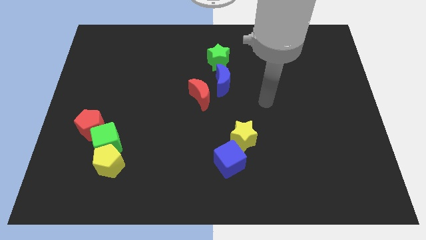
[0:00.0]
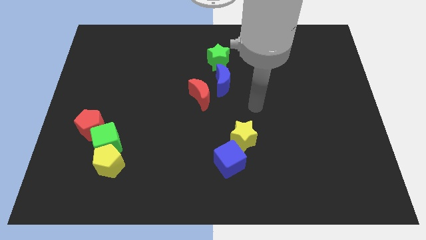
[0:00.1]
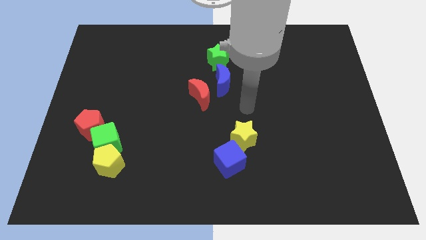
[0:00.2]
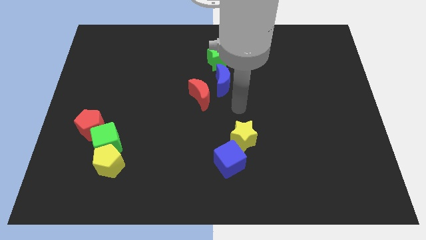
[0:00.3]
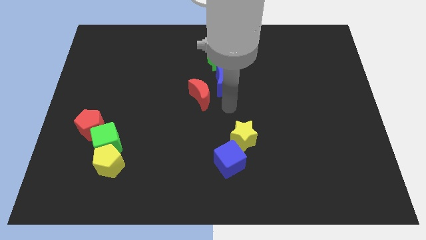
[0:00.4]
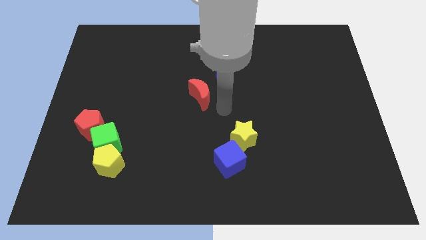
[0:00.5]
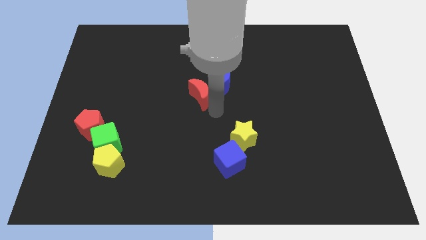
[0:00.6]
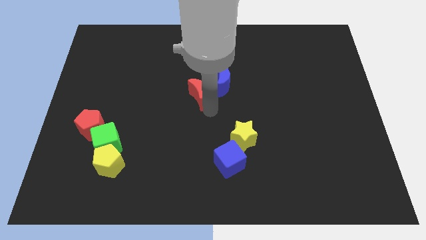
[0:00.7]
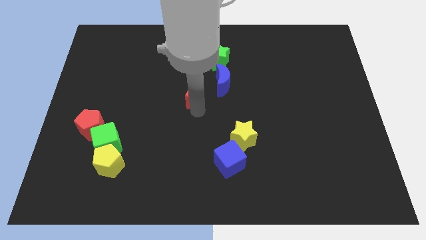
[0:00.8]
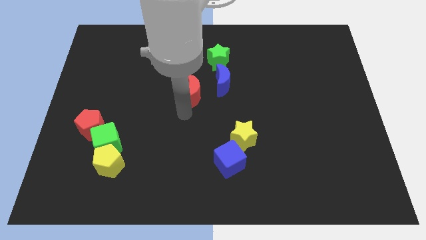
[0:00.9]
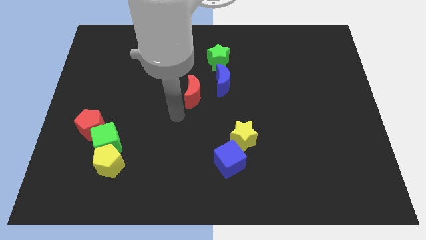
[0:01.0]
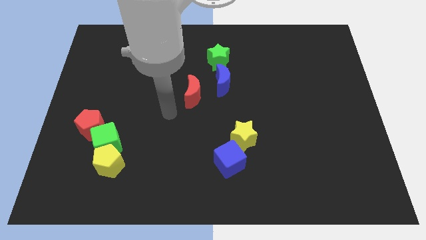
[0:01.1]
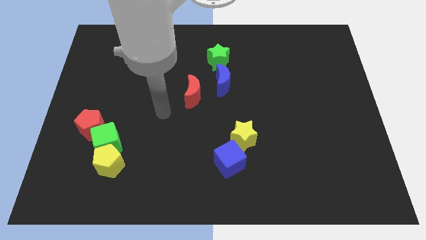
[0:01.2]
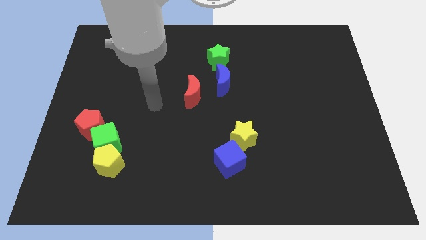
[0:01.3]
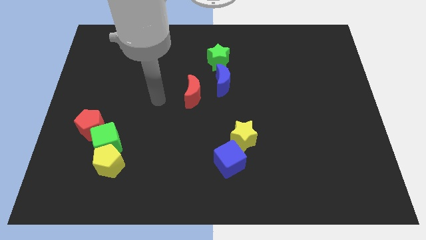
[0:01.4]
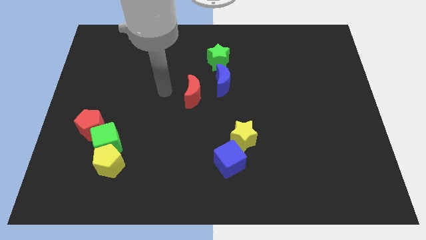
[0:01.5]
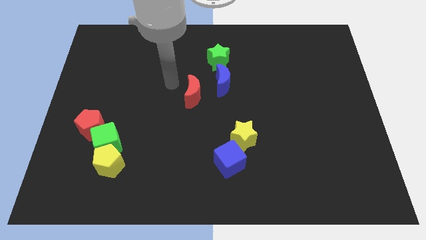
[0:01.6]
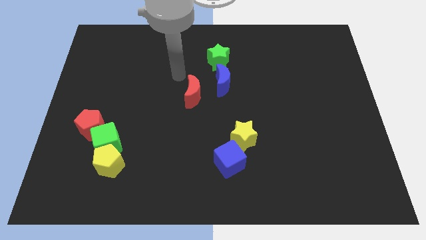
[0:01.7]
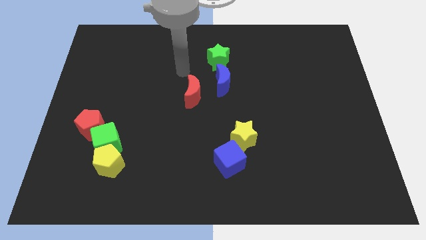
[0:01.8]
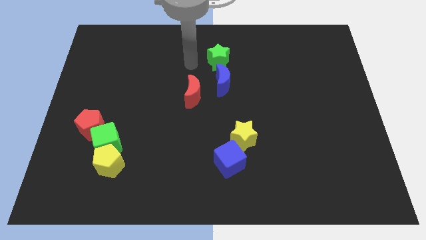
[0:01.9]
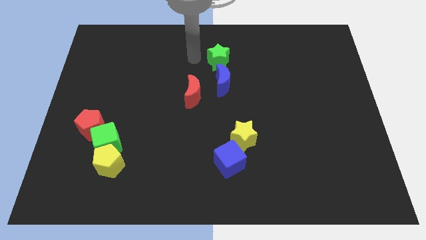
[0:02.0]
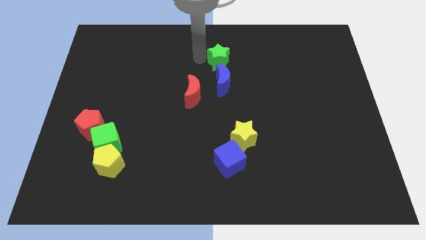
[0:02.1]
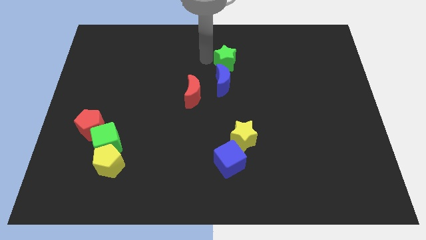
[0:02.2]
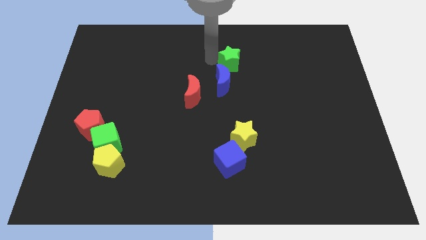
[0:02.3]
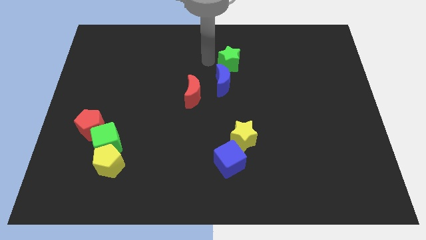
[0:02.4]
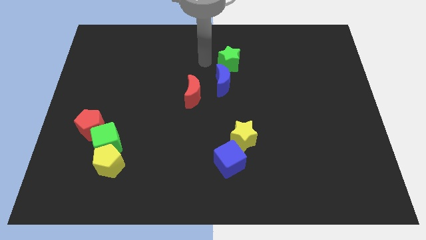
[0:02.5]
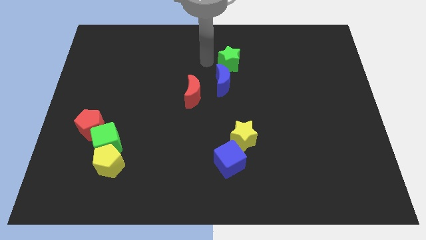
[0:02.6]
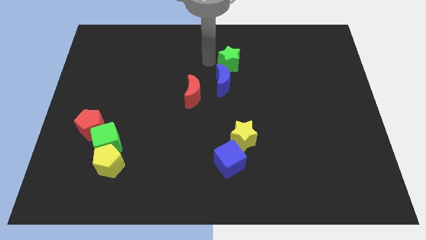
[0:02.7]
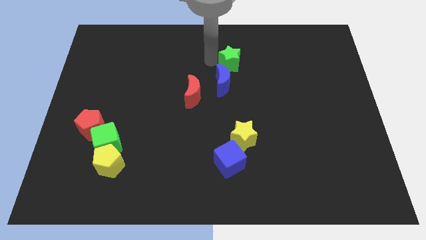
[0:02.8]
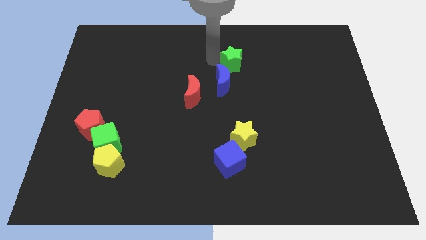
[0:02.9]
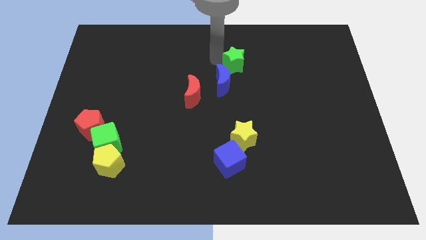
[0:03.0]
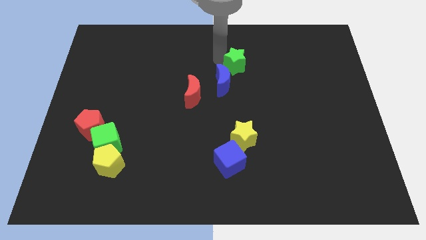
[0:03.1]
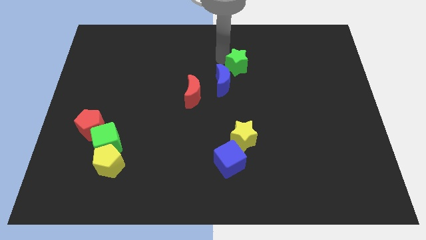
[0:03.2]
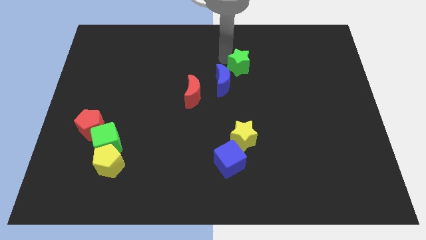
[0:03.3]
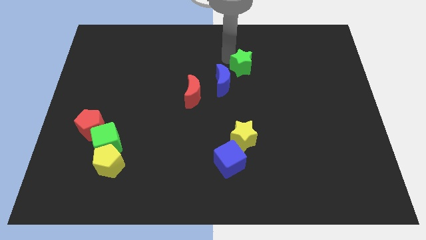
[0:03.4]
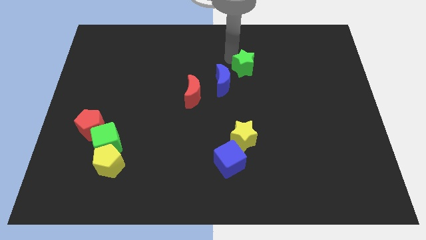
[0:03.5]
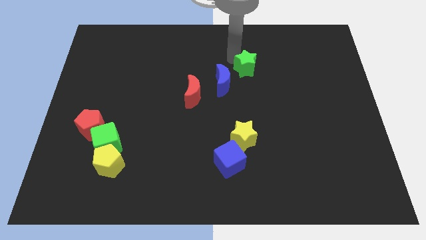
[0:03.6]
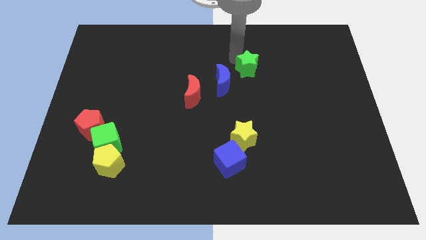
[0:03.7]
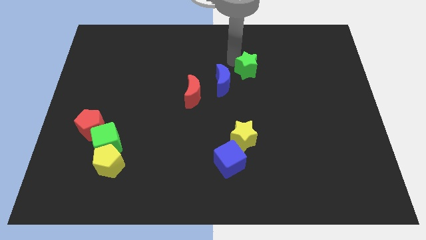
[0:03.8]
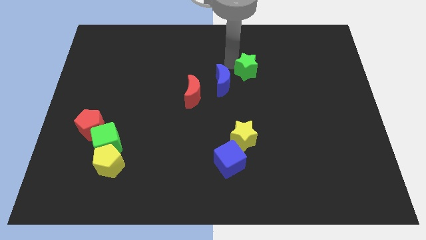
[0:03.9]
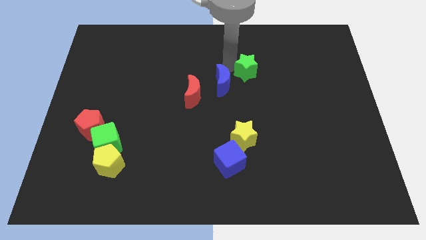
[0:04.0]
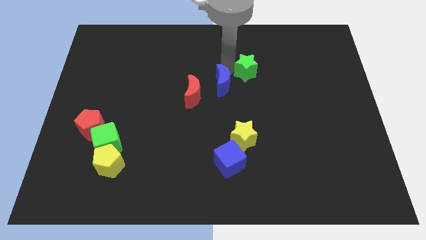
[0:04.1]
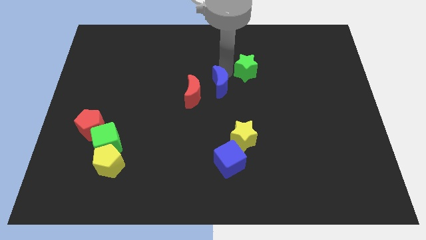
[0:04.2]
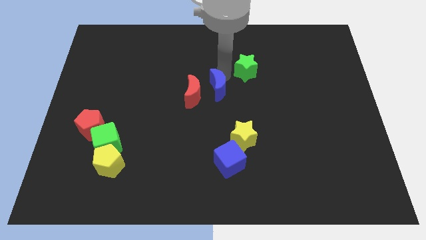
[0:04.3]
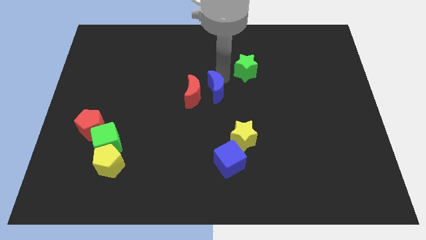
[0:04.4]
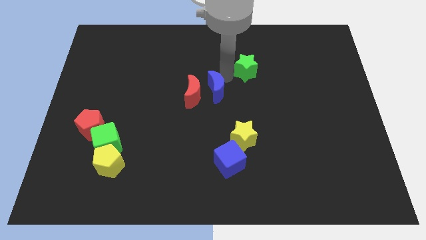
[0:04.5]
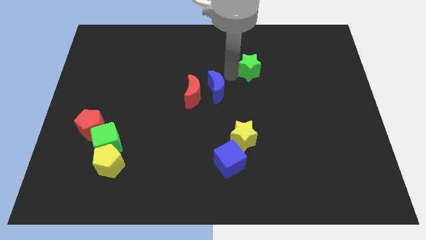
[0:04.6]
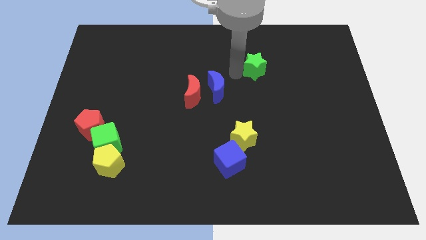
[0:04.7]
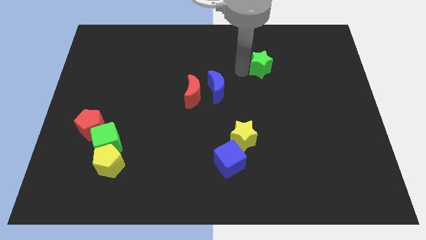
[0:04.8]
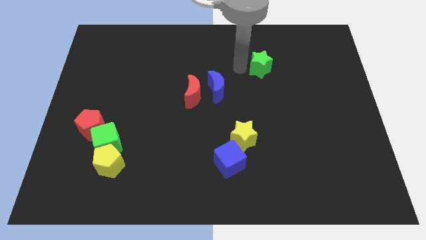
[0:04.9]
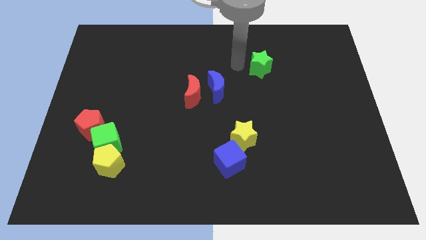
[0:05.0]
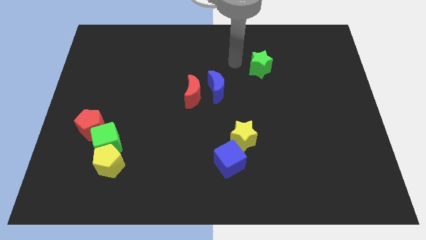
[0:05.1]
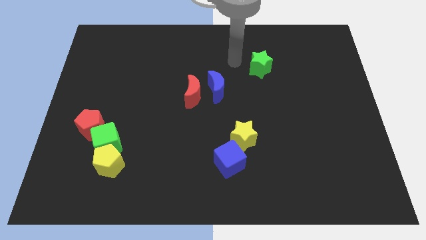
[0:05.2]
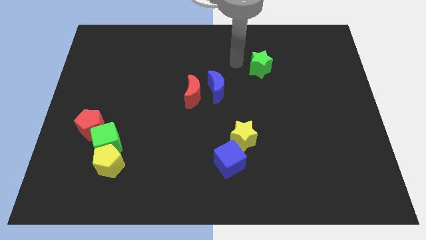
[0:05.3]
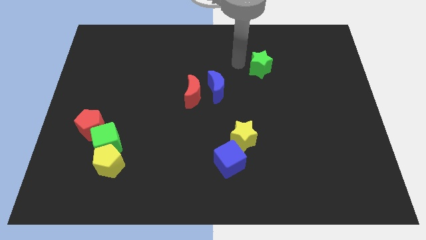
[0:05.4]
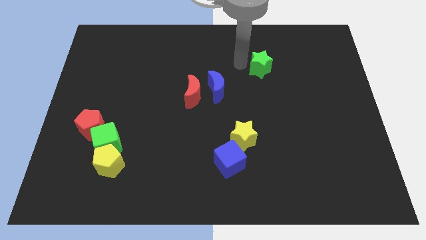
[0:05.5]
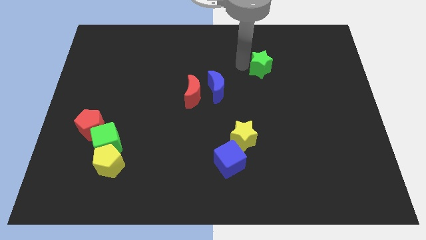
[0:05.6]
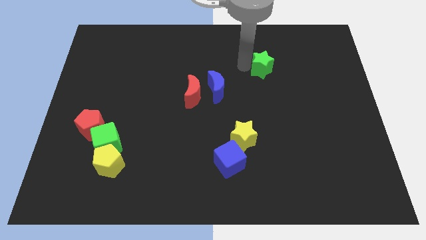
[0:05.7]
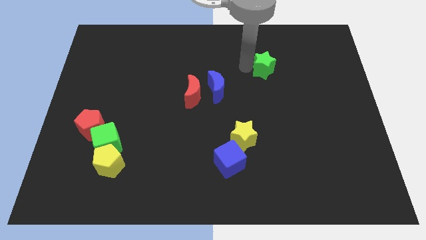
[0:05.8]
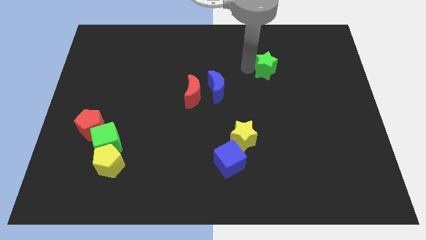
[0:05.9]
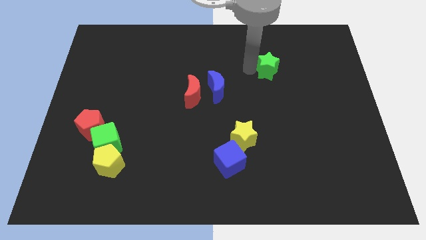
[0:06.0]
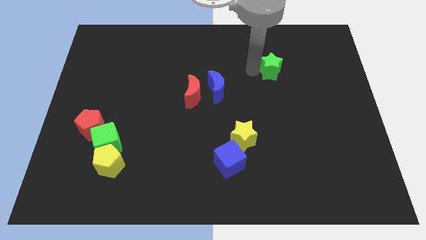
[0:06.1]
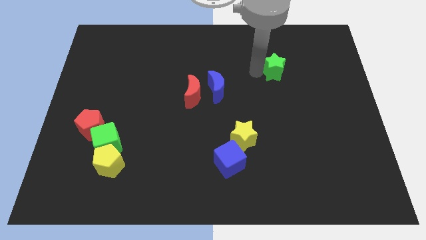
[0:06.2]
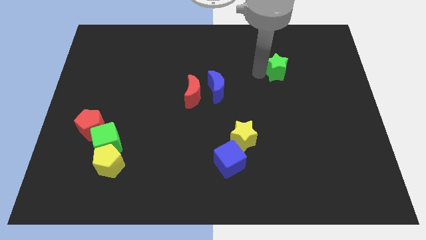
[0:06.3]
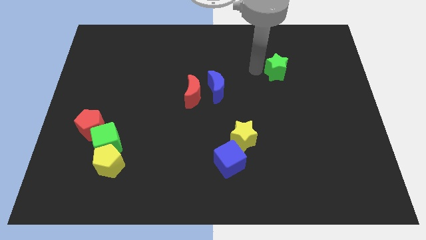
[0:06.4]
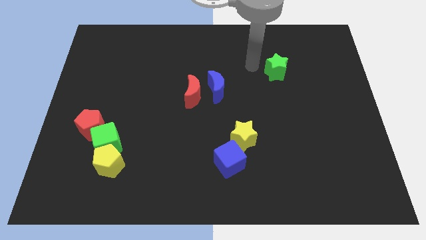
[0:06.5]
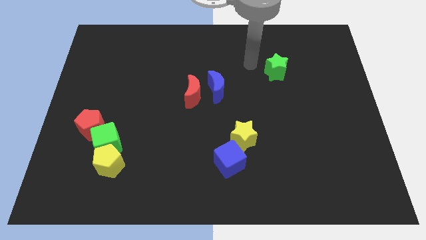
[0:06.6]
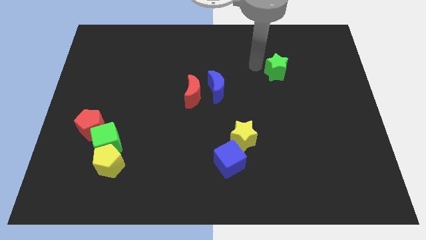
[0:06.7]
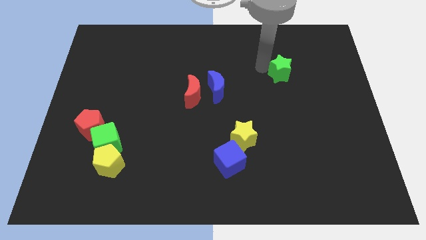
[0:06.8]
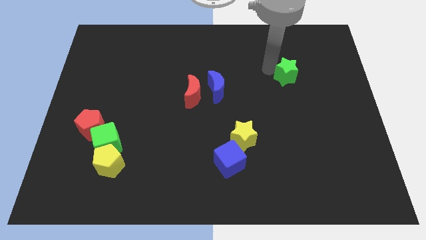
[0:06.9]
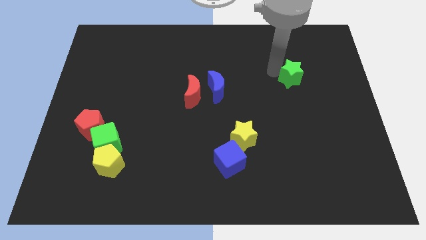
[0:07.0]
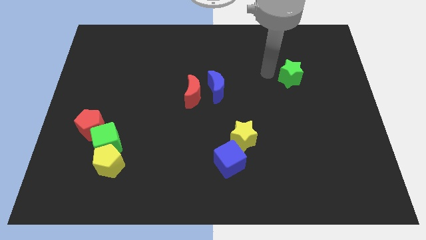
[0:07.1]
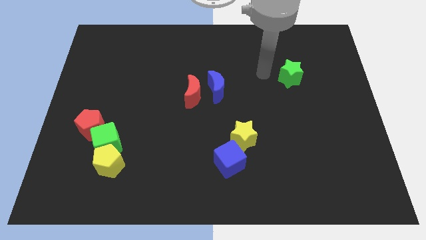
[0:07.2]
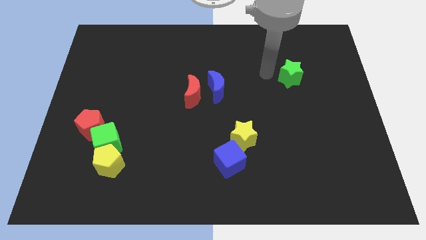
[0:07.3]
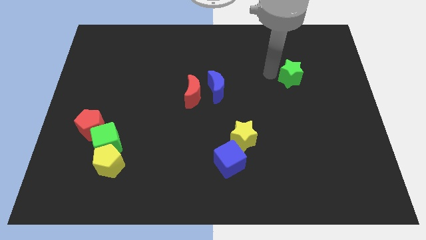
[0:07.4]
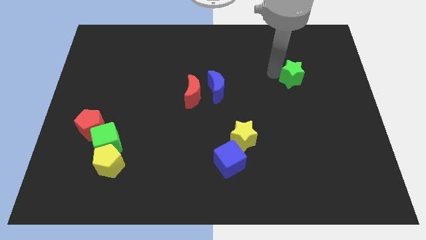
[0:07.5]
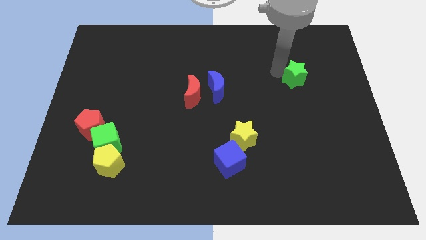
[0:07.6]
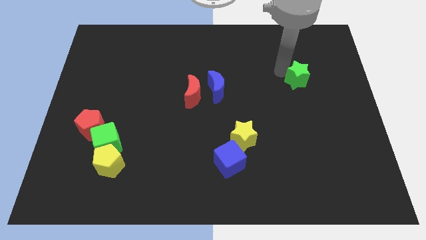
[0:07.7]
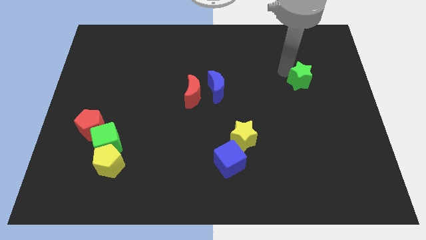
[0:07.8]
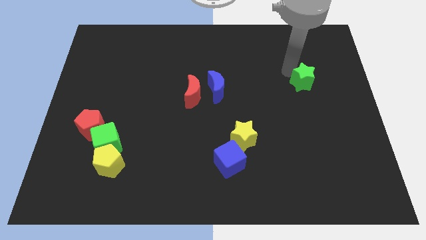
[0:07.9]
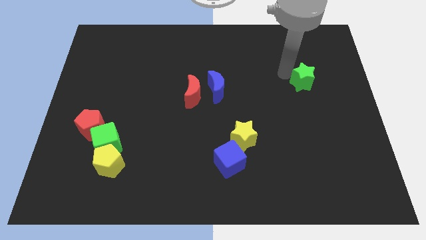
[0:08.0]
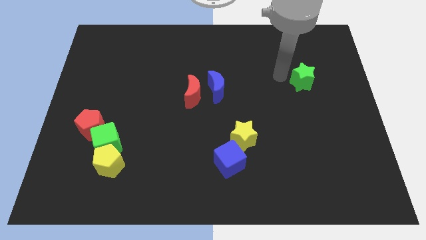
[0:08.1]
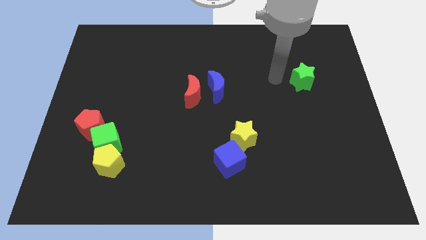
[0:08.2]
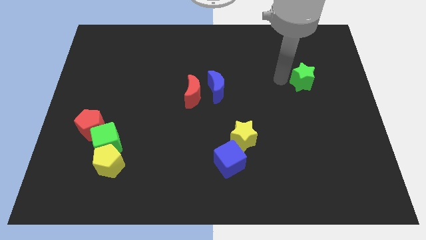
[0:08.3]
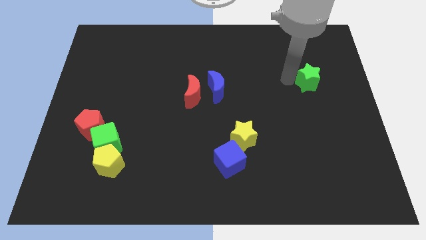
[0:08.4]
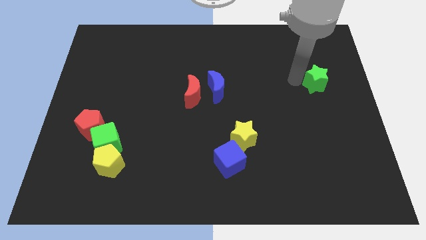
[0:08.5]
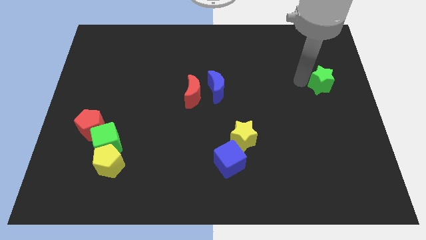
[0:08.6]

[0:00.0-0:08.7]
put the green star to the right side
